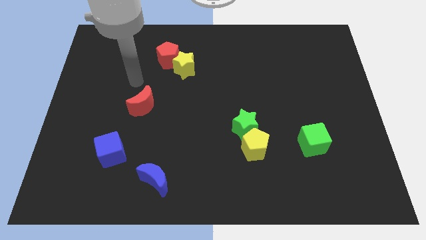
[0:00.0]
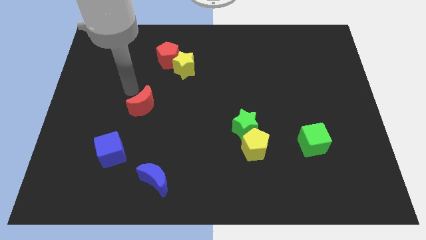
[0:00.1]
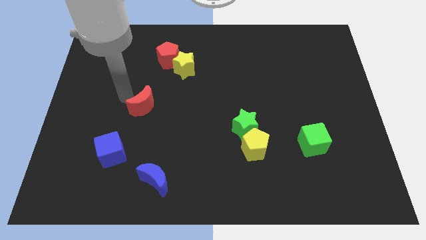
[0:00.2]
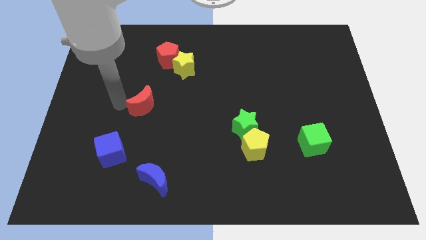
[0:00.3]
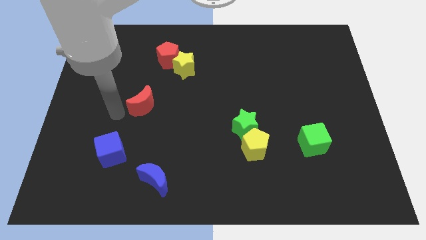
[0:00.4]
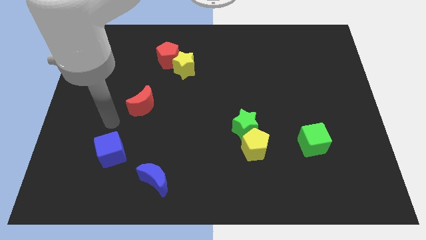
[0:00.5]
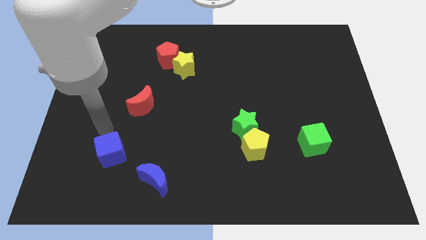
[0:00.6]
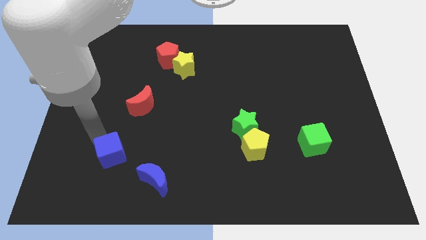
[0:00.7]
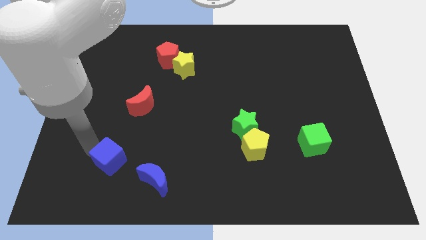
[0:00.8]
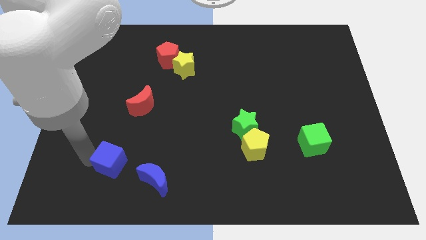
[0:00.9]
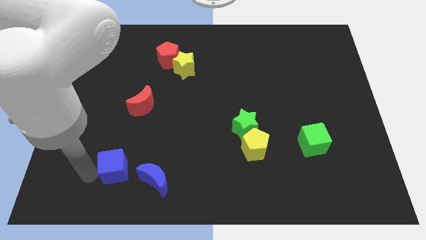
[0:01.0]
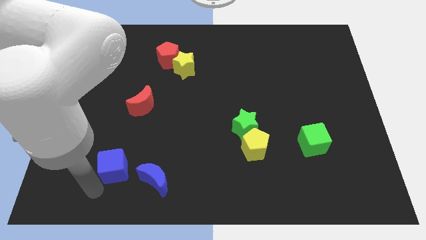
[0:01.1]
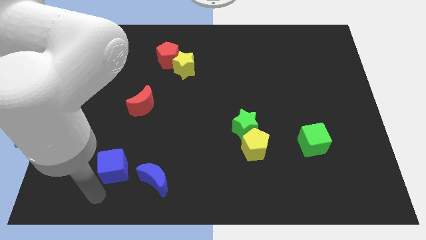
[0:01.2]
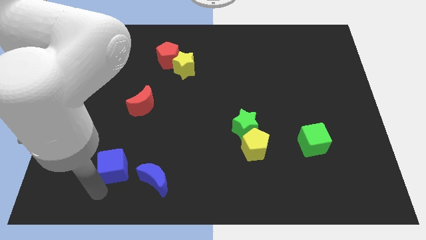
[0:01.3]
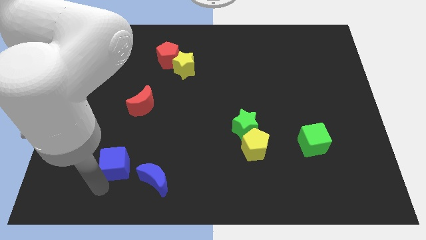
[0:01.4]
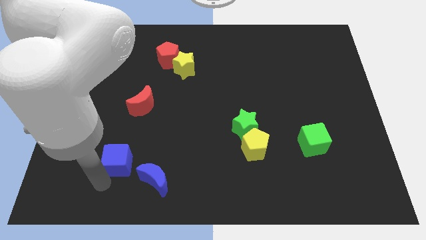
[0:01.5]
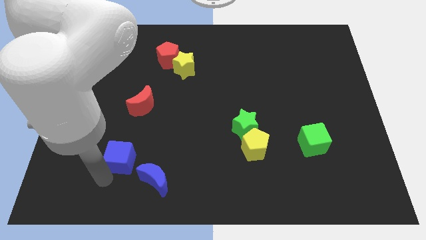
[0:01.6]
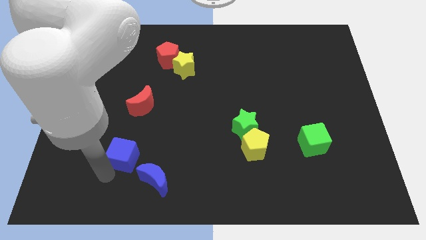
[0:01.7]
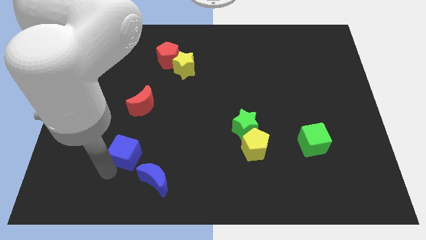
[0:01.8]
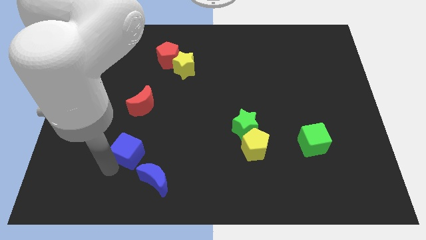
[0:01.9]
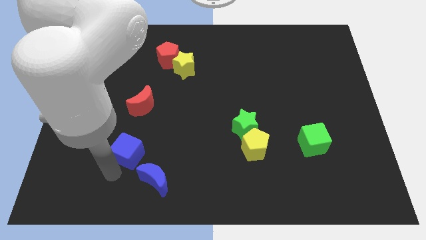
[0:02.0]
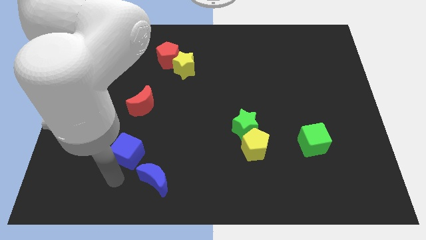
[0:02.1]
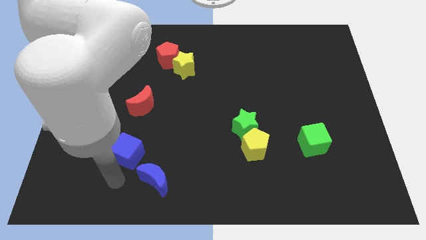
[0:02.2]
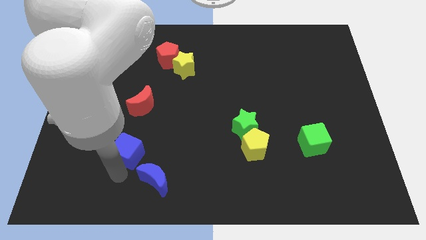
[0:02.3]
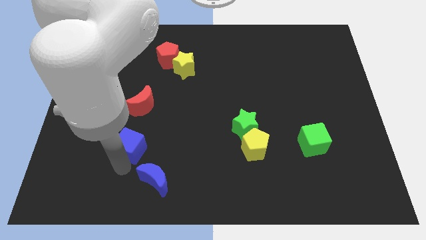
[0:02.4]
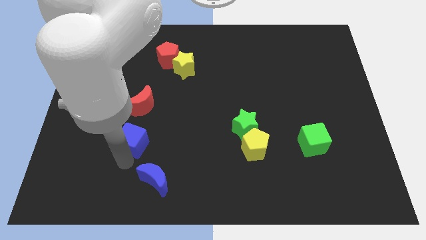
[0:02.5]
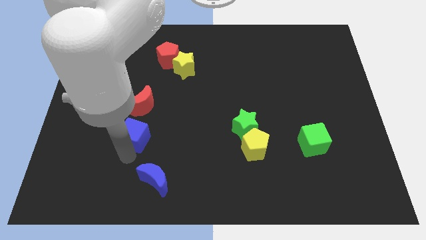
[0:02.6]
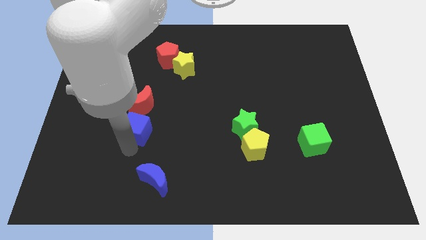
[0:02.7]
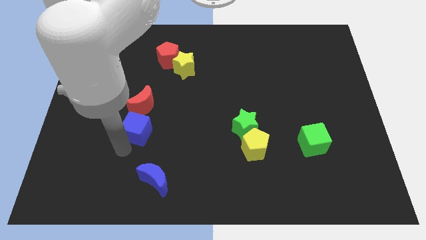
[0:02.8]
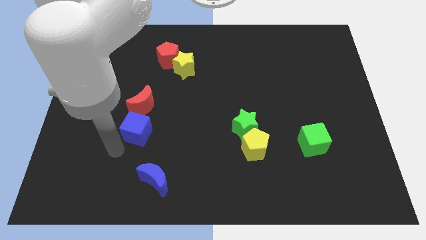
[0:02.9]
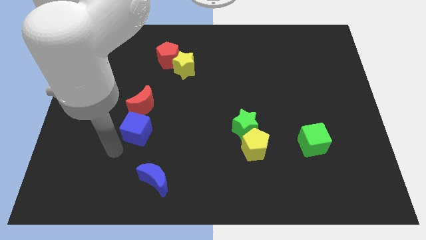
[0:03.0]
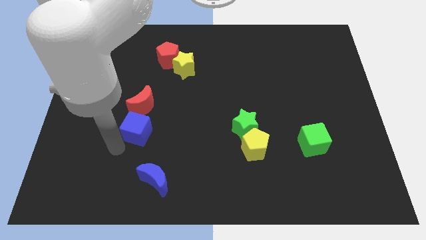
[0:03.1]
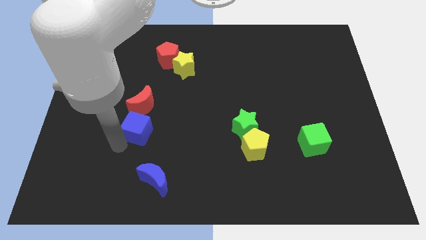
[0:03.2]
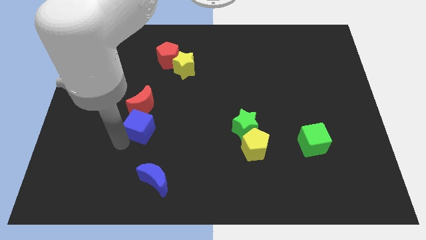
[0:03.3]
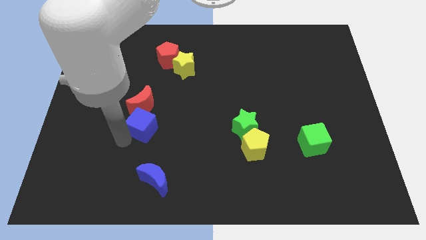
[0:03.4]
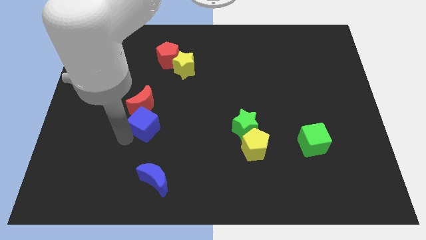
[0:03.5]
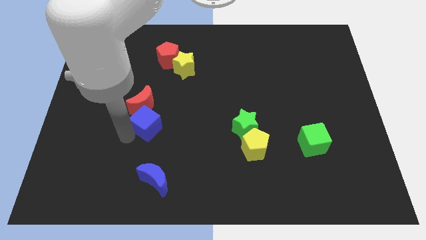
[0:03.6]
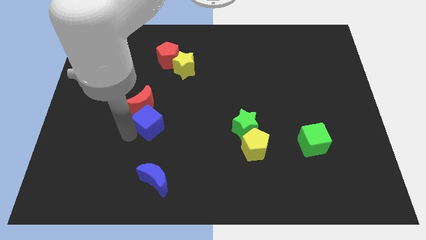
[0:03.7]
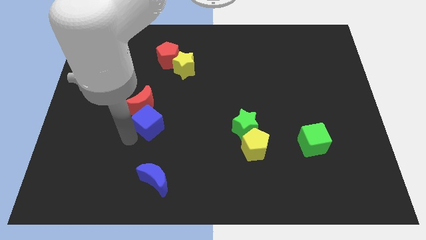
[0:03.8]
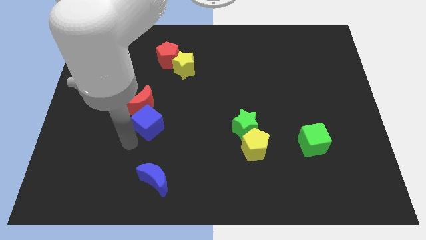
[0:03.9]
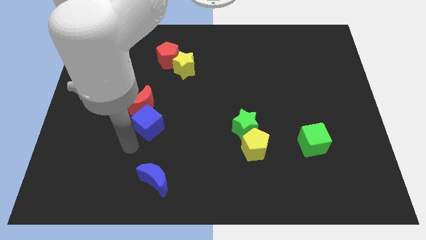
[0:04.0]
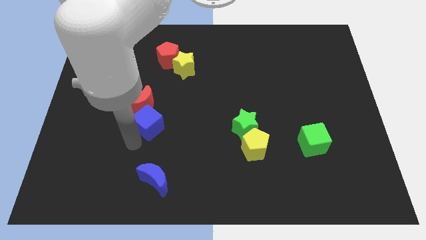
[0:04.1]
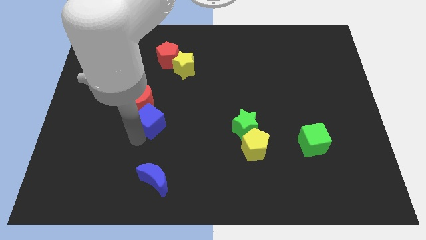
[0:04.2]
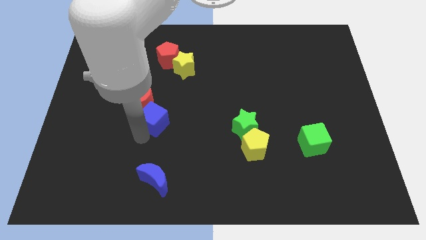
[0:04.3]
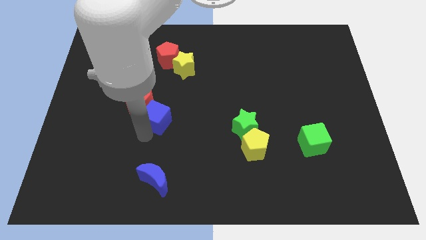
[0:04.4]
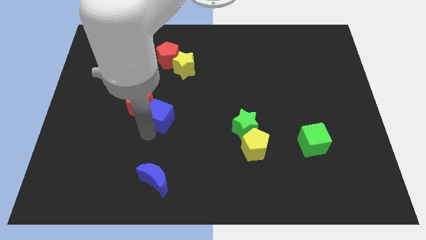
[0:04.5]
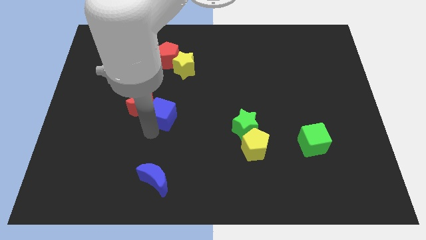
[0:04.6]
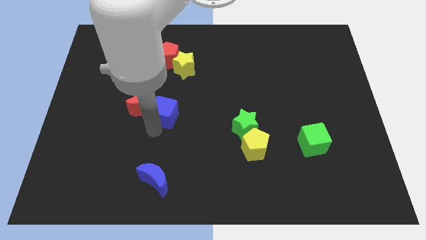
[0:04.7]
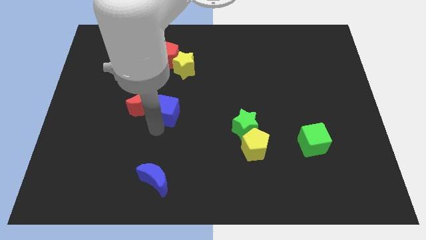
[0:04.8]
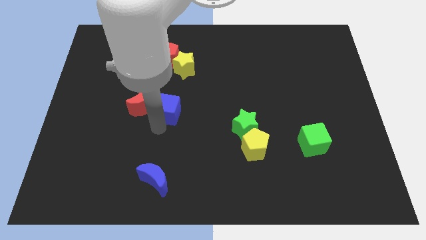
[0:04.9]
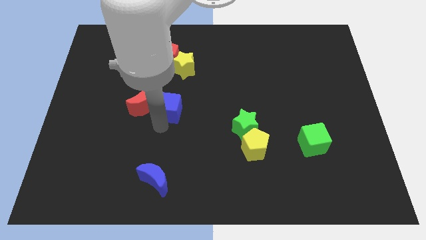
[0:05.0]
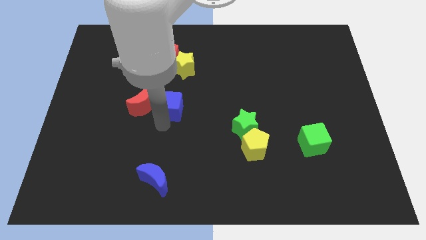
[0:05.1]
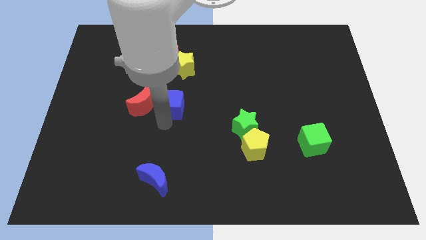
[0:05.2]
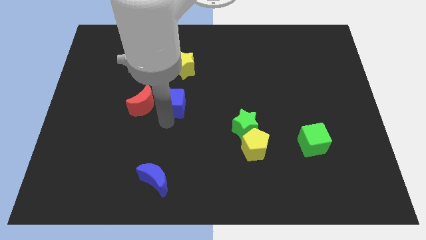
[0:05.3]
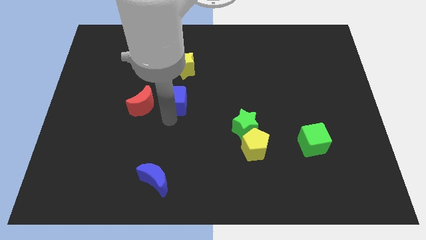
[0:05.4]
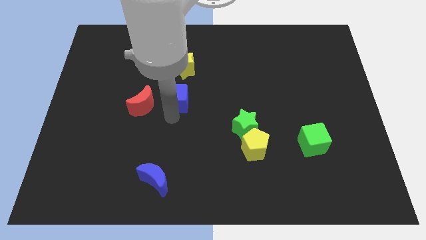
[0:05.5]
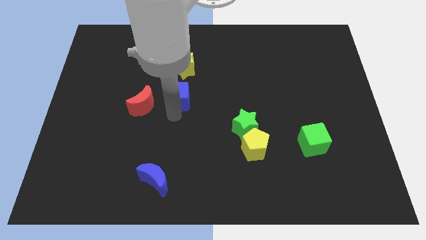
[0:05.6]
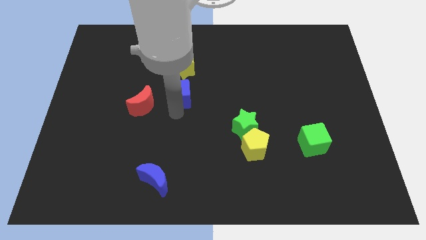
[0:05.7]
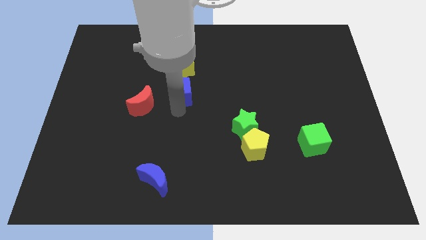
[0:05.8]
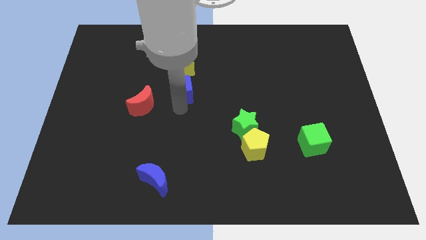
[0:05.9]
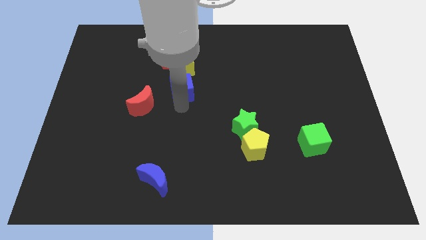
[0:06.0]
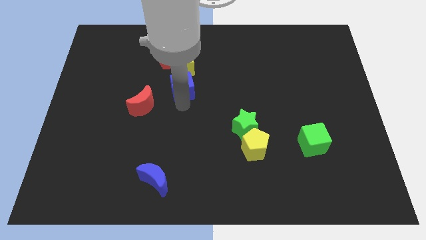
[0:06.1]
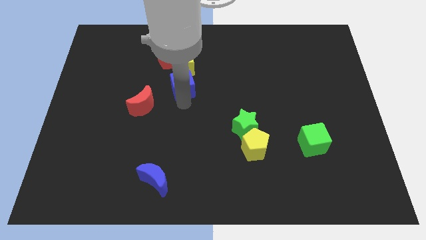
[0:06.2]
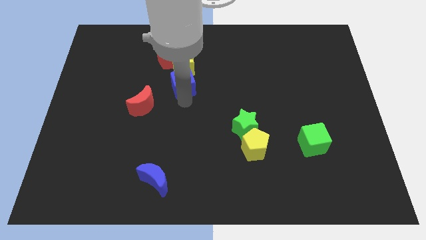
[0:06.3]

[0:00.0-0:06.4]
push the blue cube close to the yellow star

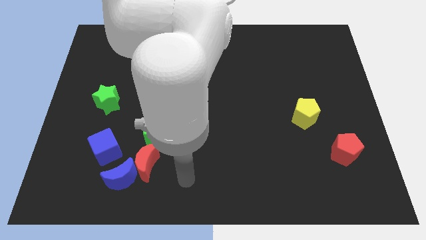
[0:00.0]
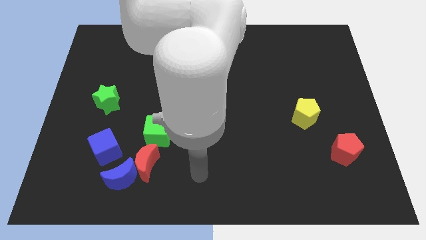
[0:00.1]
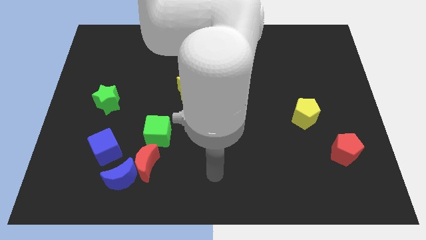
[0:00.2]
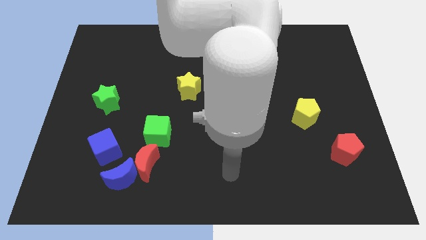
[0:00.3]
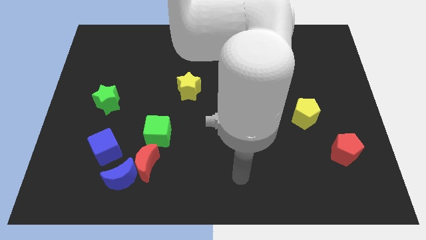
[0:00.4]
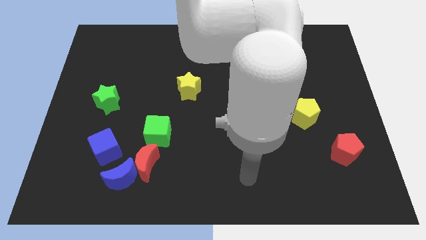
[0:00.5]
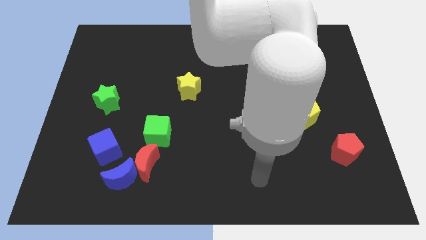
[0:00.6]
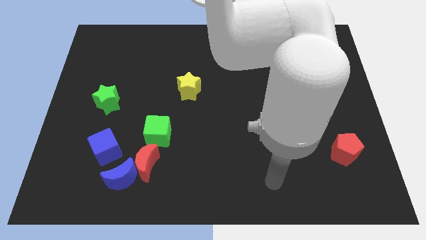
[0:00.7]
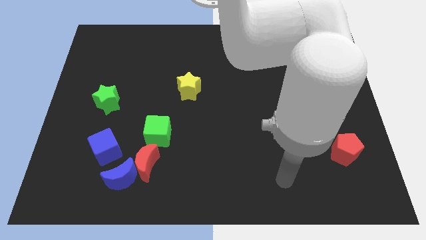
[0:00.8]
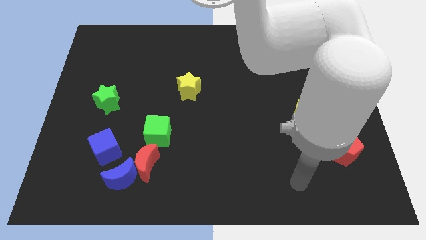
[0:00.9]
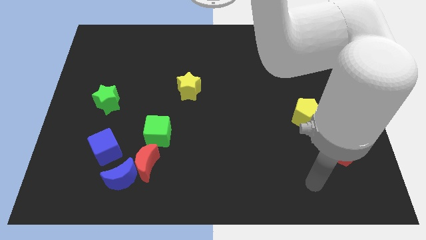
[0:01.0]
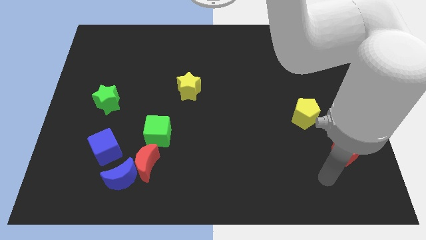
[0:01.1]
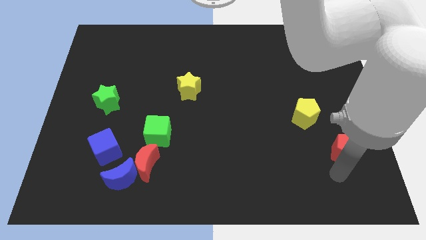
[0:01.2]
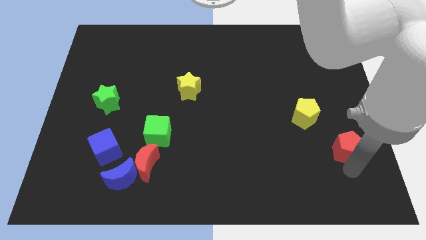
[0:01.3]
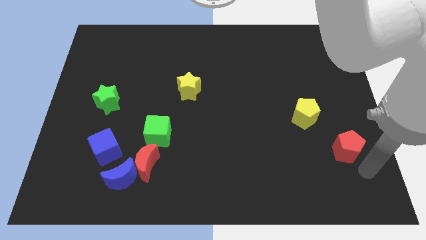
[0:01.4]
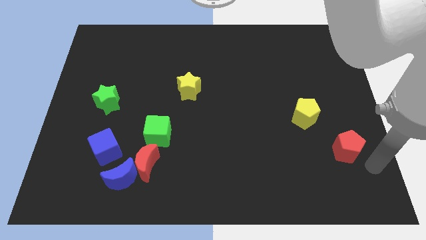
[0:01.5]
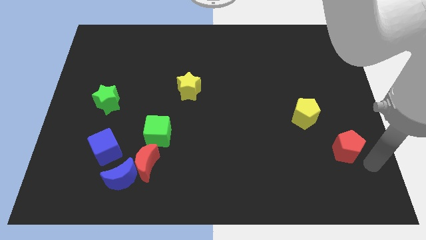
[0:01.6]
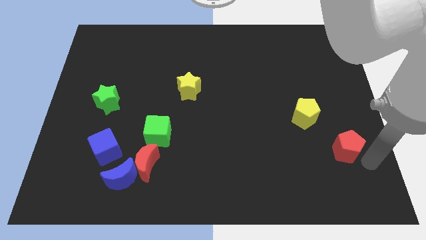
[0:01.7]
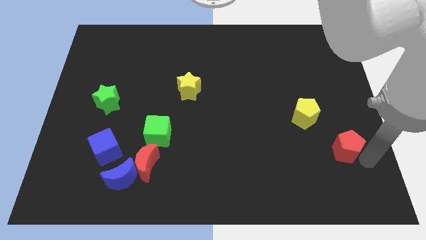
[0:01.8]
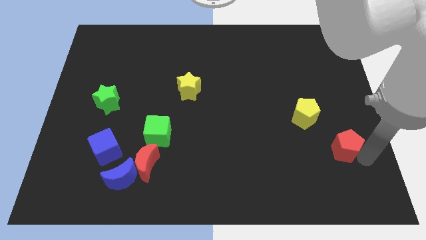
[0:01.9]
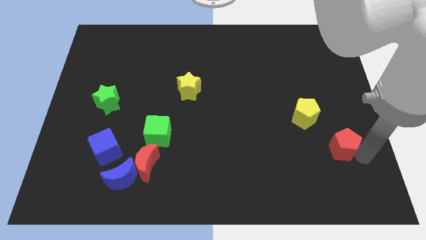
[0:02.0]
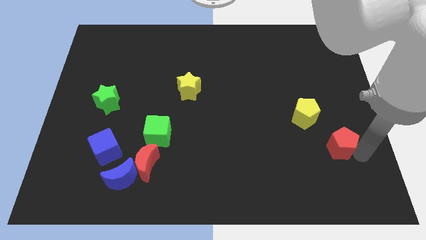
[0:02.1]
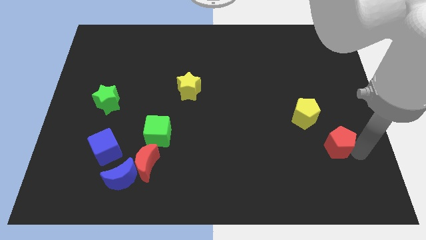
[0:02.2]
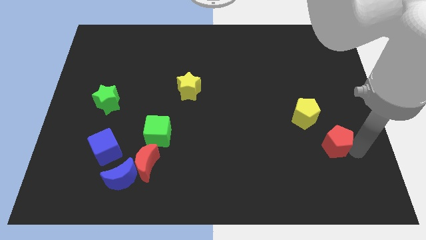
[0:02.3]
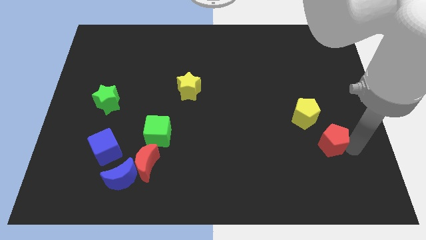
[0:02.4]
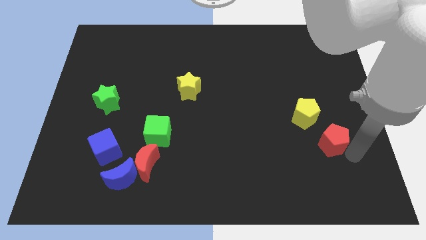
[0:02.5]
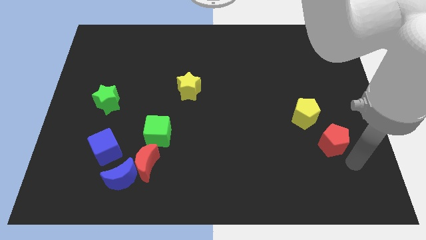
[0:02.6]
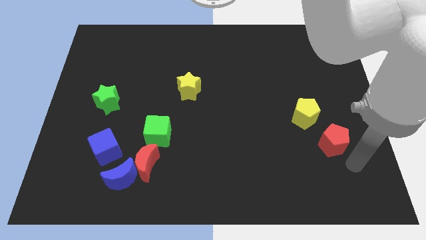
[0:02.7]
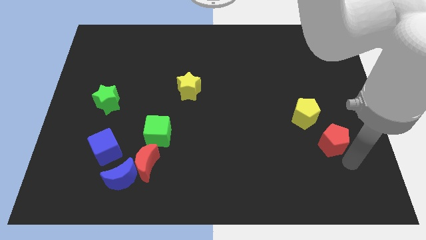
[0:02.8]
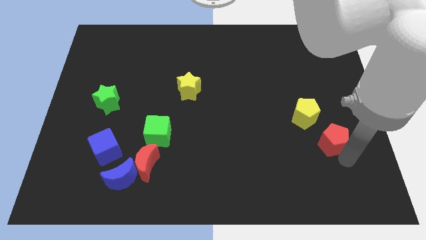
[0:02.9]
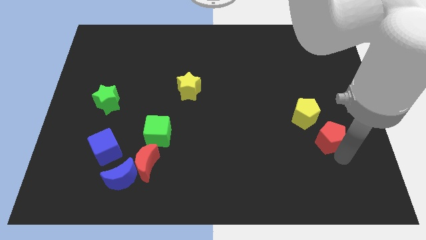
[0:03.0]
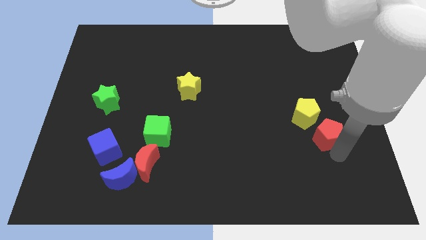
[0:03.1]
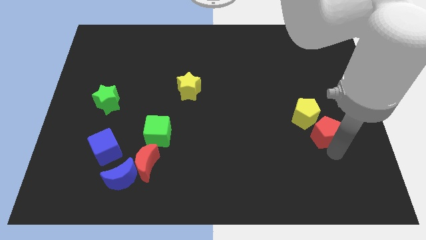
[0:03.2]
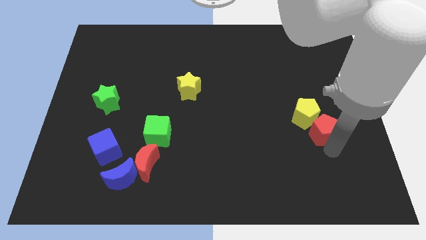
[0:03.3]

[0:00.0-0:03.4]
slide the red pentagon to the yellow pentagon
